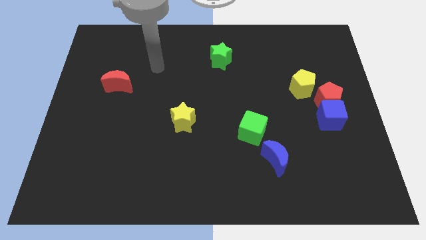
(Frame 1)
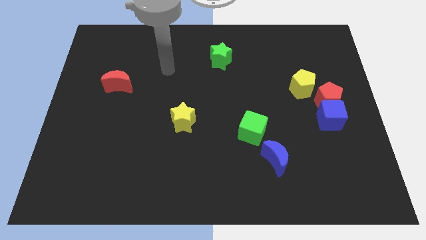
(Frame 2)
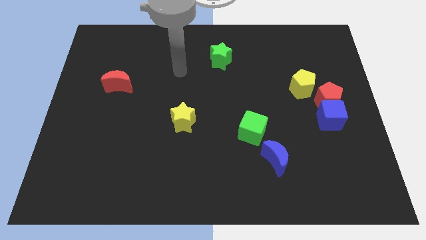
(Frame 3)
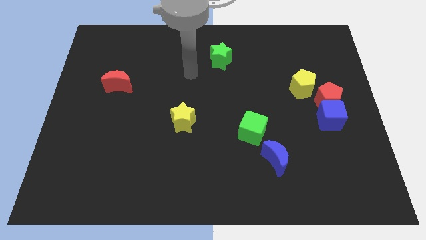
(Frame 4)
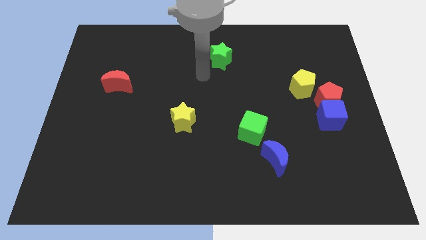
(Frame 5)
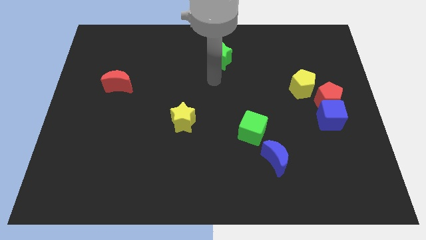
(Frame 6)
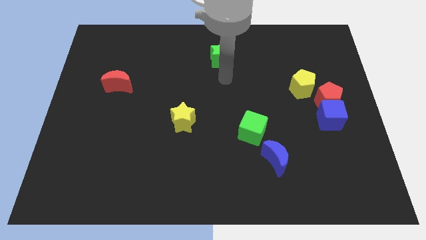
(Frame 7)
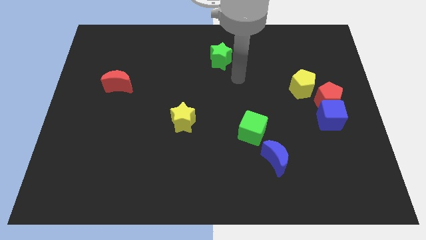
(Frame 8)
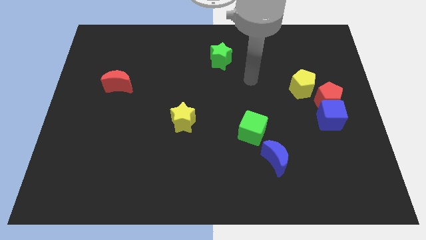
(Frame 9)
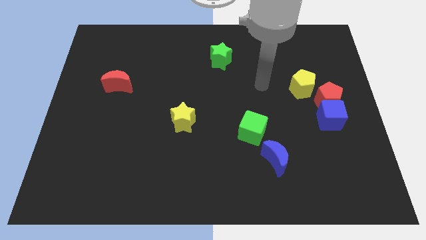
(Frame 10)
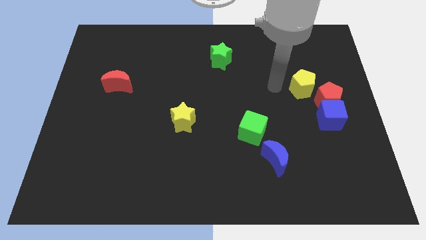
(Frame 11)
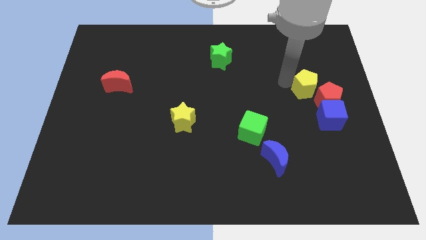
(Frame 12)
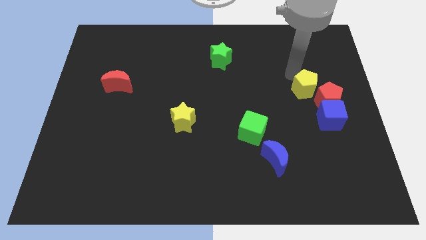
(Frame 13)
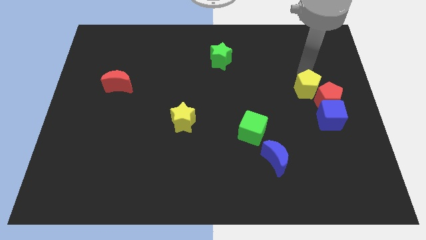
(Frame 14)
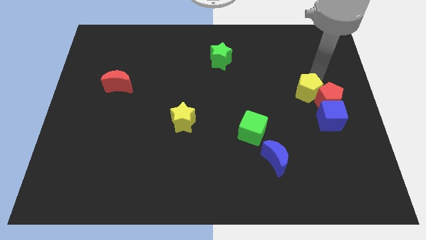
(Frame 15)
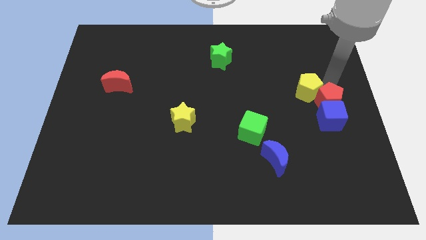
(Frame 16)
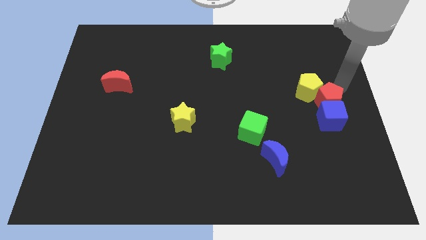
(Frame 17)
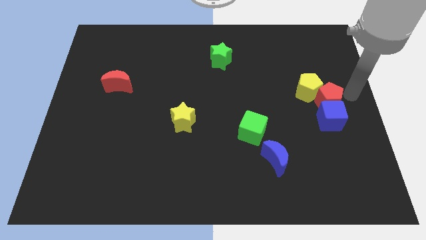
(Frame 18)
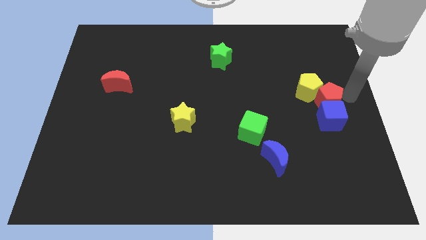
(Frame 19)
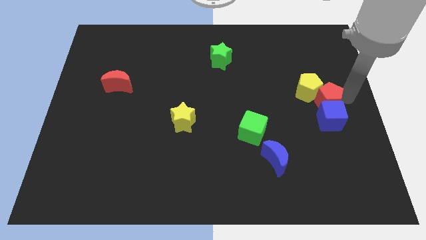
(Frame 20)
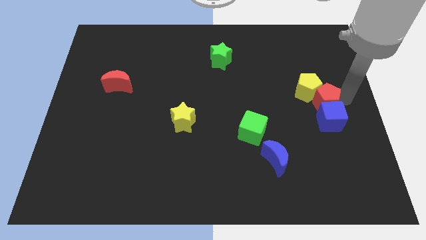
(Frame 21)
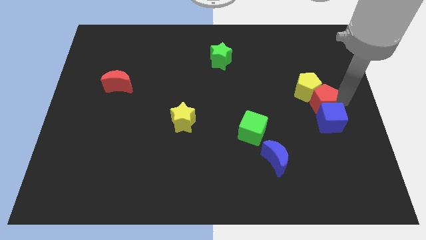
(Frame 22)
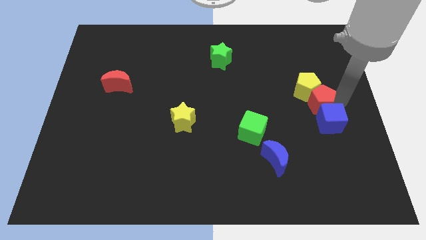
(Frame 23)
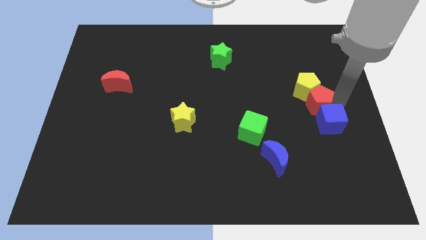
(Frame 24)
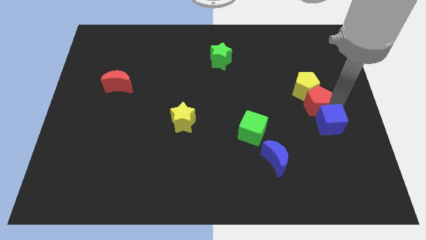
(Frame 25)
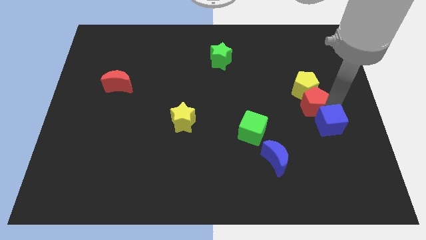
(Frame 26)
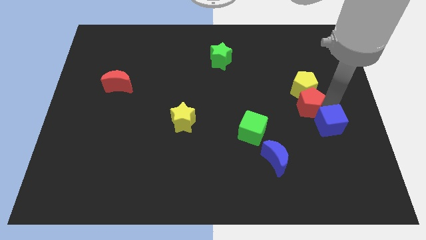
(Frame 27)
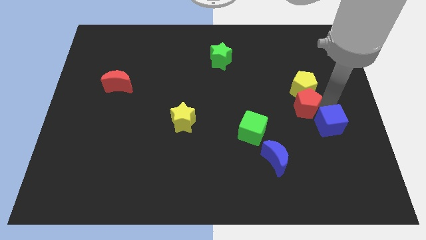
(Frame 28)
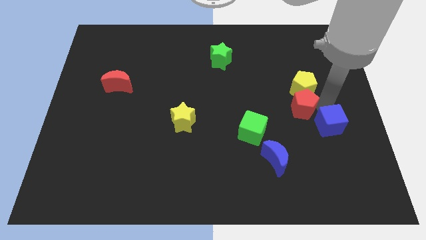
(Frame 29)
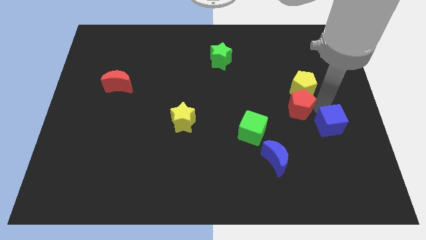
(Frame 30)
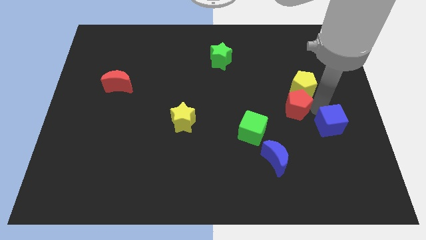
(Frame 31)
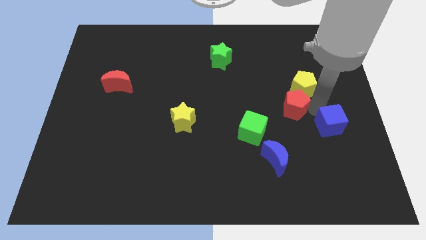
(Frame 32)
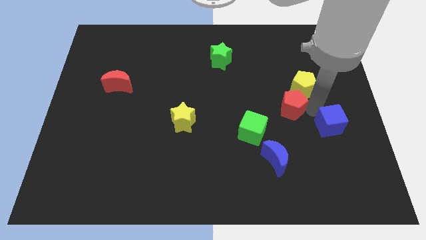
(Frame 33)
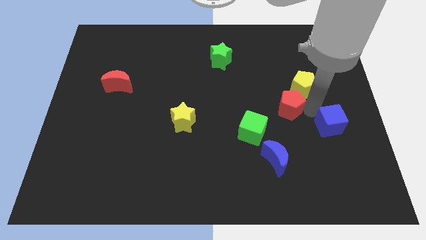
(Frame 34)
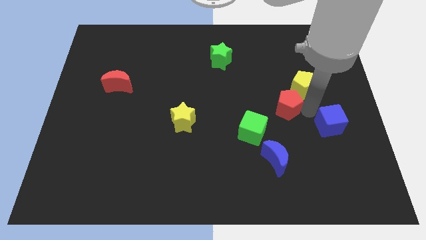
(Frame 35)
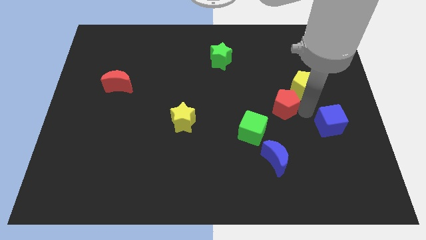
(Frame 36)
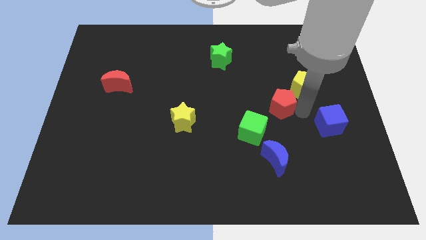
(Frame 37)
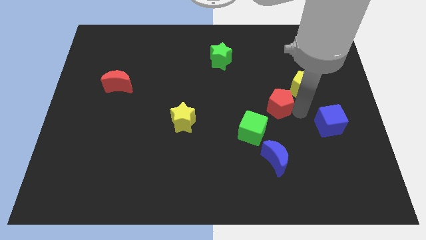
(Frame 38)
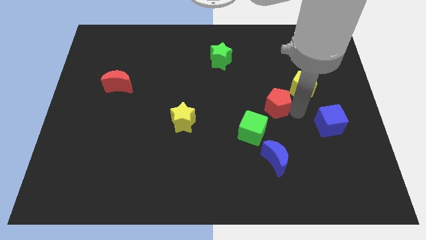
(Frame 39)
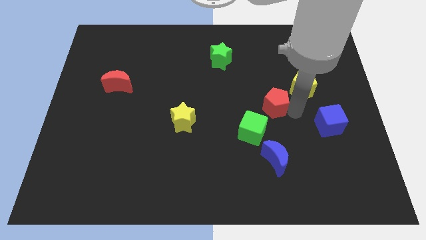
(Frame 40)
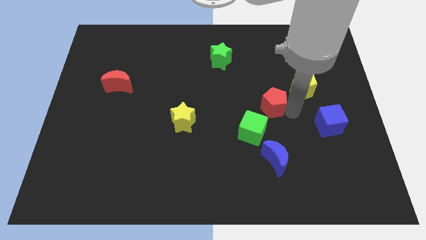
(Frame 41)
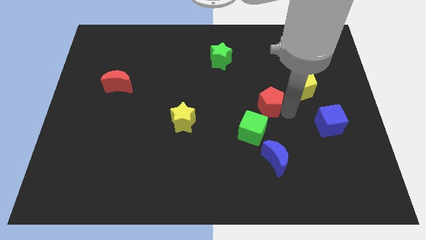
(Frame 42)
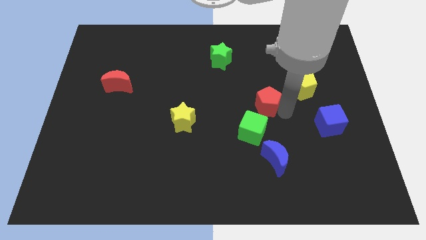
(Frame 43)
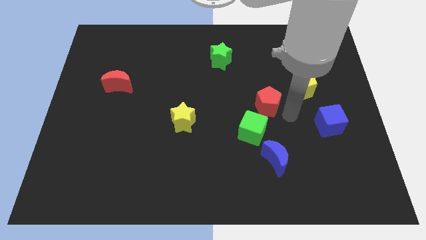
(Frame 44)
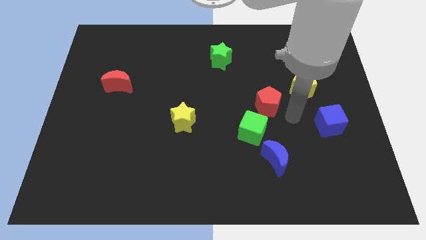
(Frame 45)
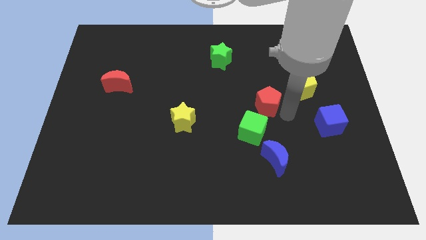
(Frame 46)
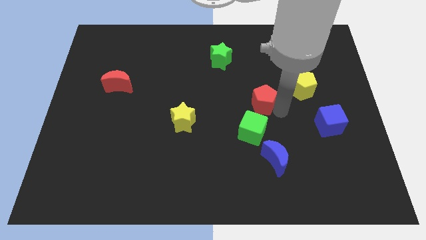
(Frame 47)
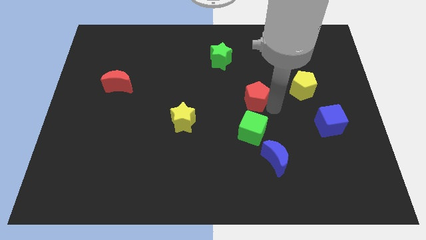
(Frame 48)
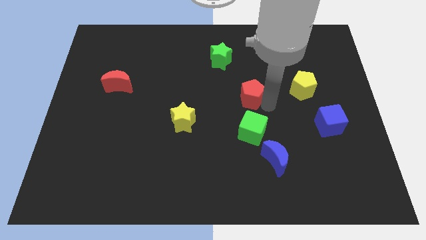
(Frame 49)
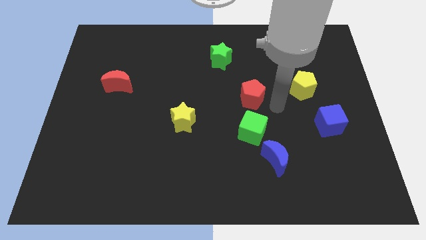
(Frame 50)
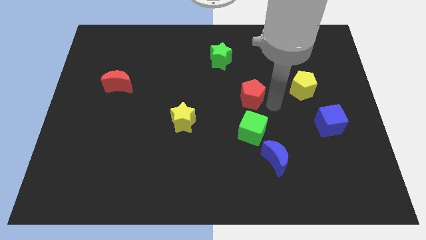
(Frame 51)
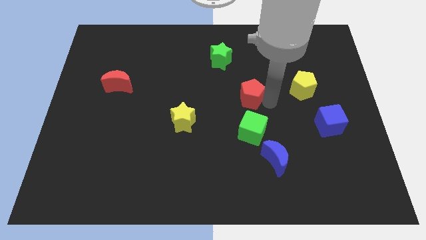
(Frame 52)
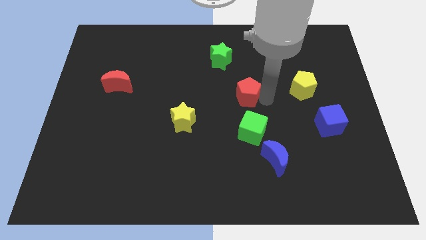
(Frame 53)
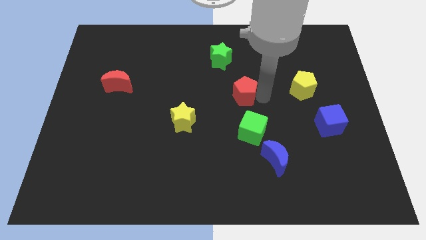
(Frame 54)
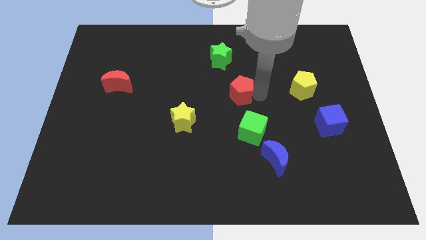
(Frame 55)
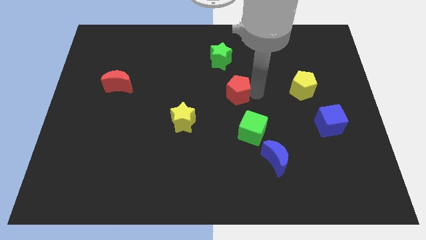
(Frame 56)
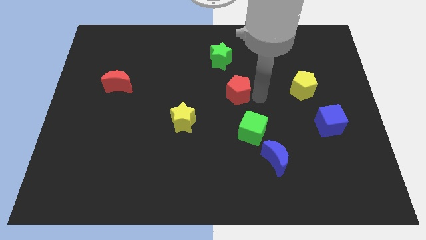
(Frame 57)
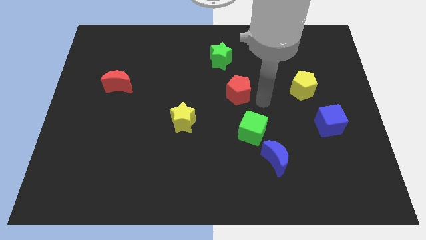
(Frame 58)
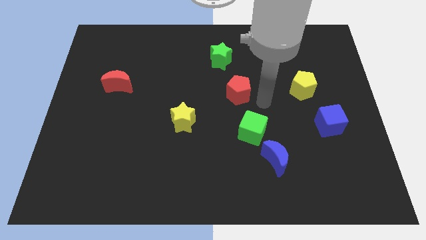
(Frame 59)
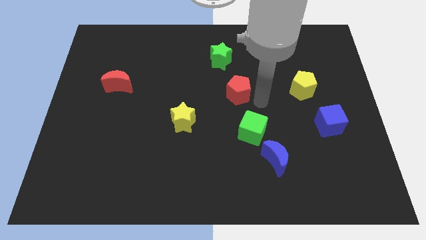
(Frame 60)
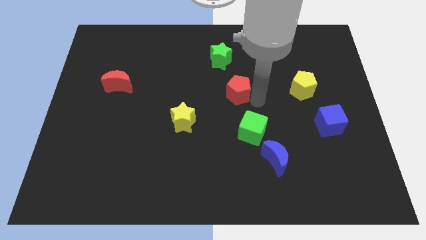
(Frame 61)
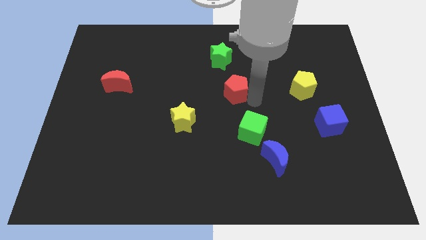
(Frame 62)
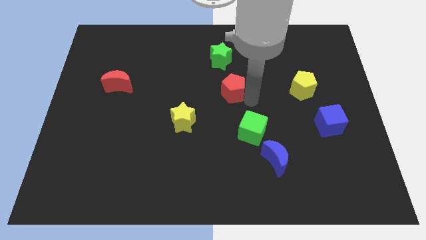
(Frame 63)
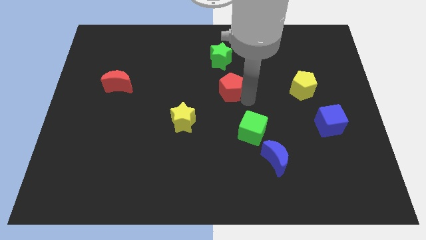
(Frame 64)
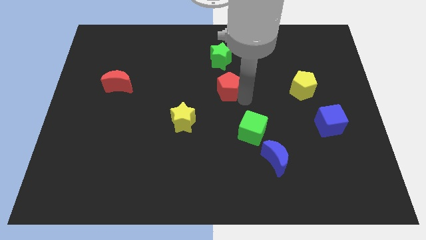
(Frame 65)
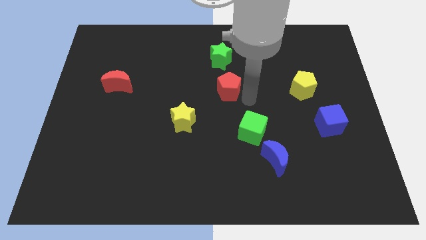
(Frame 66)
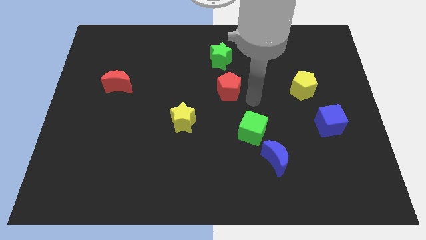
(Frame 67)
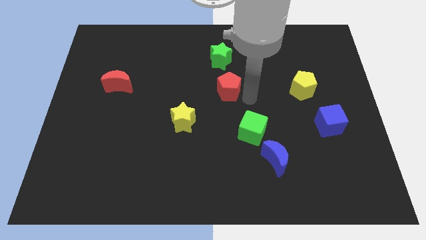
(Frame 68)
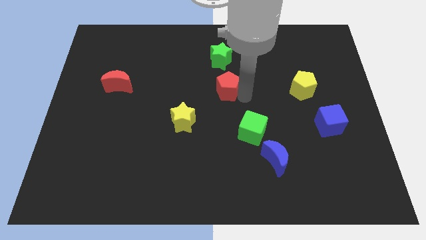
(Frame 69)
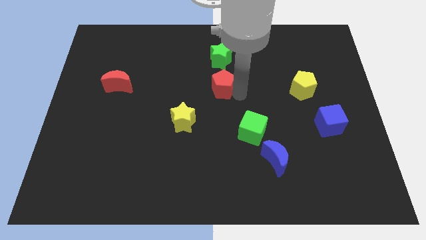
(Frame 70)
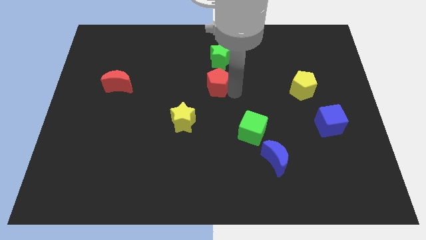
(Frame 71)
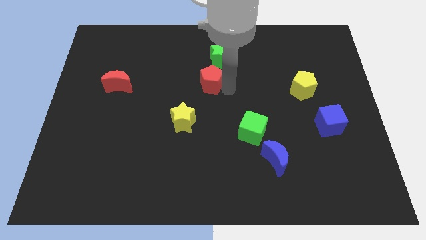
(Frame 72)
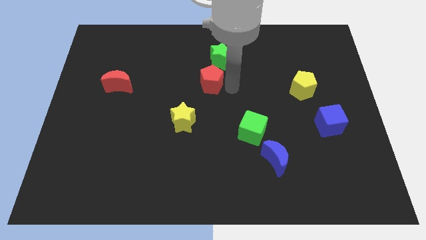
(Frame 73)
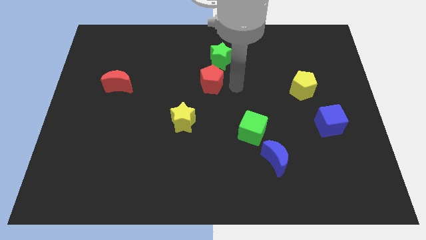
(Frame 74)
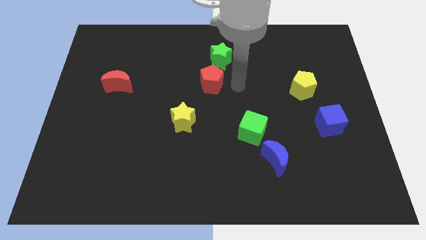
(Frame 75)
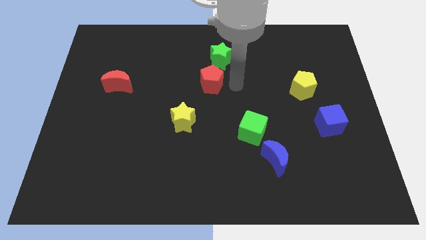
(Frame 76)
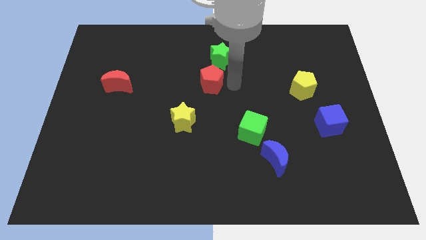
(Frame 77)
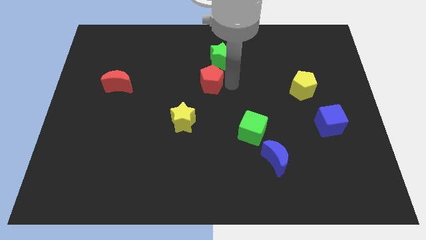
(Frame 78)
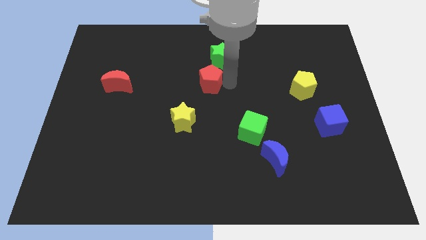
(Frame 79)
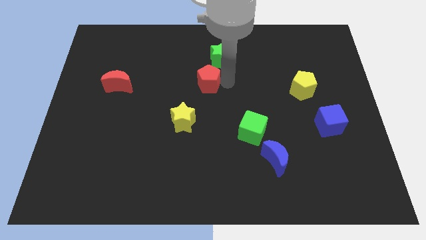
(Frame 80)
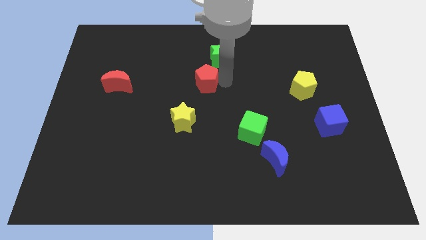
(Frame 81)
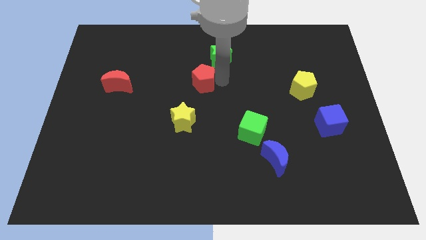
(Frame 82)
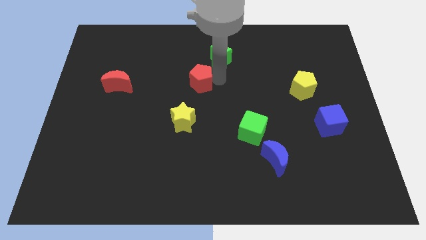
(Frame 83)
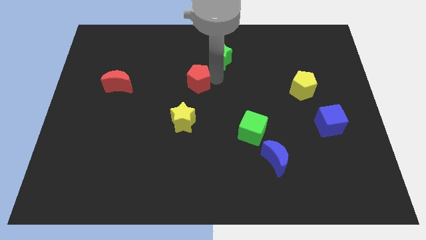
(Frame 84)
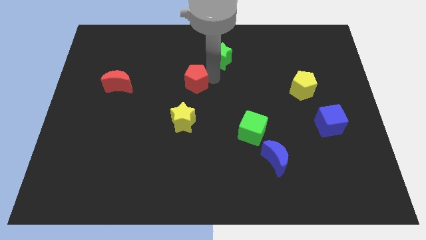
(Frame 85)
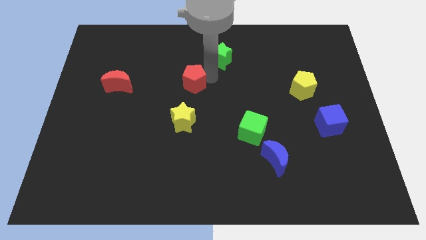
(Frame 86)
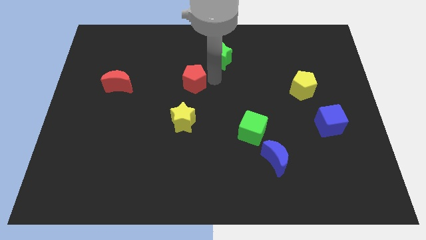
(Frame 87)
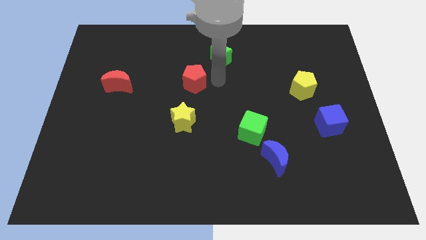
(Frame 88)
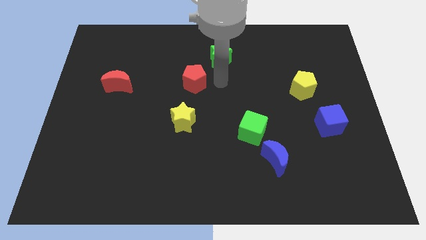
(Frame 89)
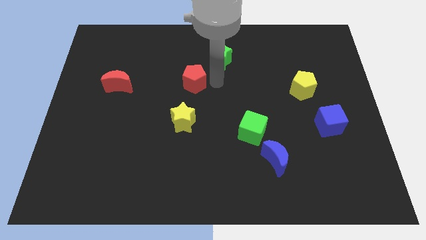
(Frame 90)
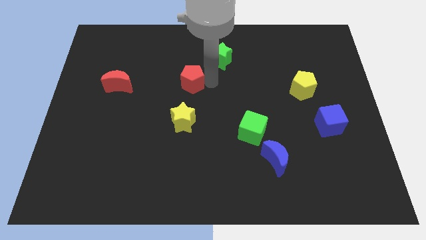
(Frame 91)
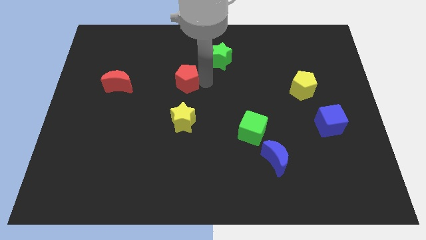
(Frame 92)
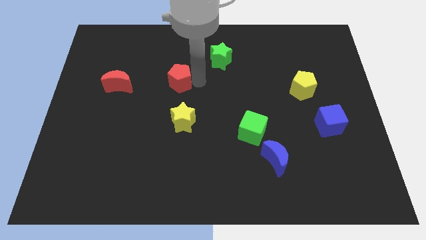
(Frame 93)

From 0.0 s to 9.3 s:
move the red pentagon just right of the red moon
